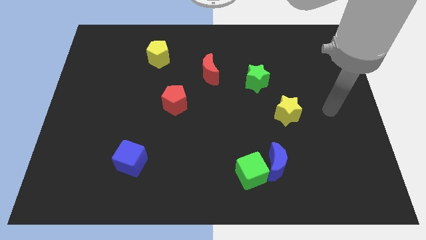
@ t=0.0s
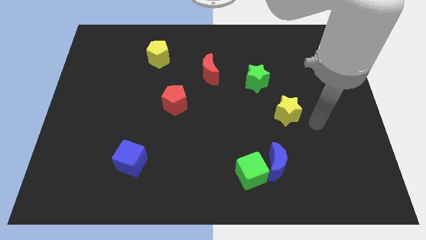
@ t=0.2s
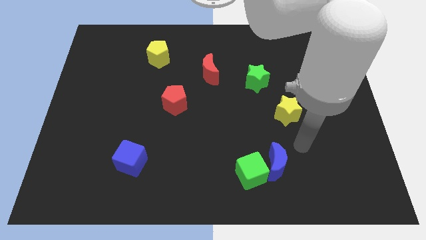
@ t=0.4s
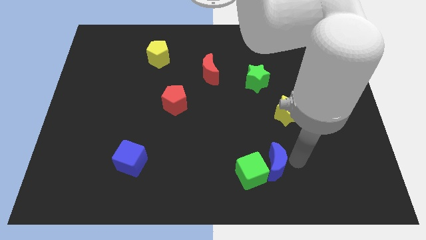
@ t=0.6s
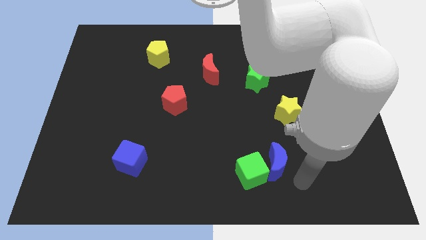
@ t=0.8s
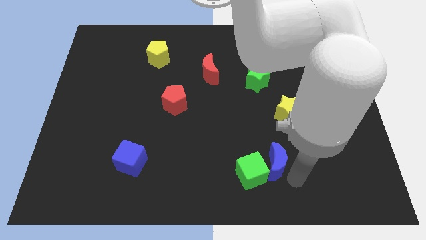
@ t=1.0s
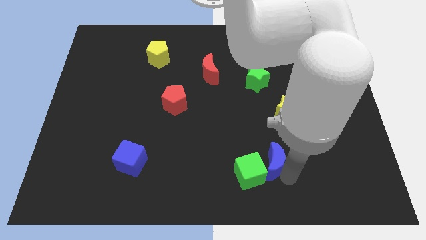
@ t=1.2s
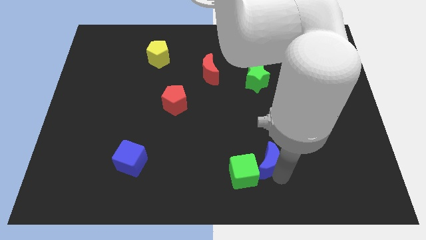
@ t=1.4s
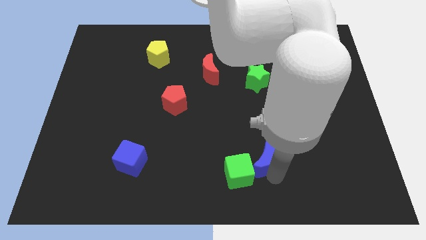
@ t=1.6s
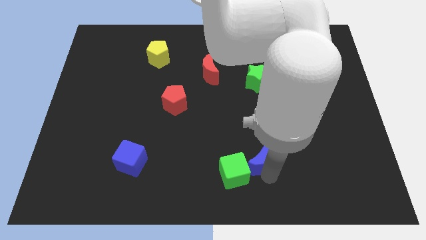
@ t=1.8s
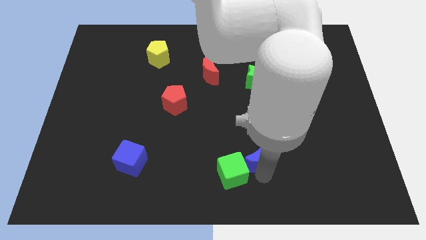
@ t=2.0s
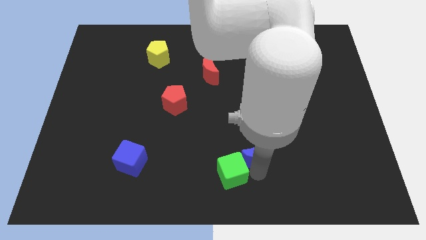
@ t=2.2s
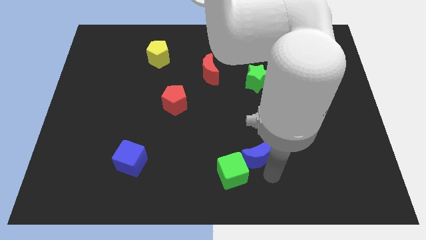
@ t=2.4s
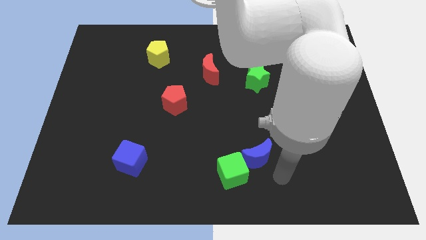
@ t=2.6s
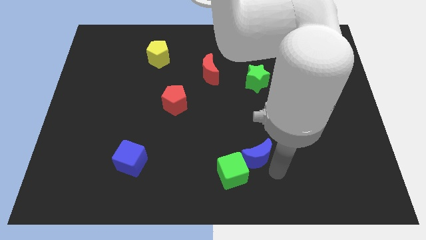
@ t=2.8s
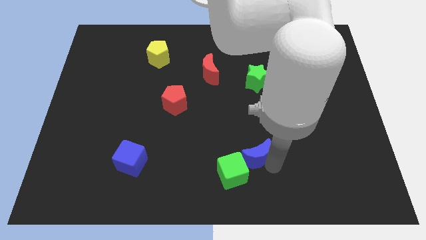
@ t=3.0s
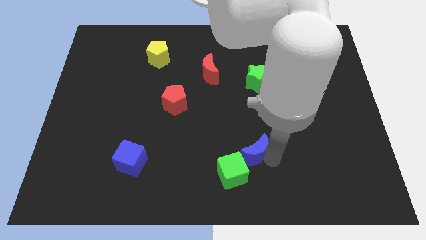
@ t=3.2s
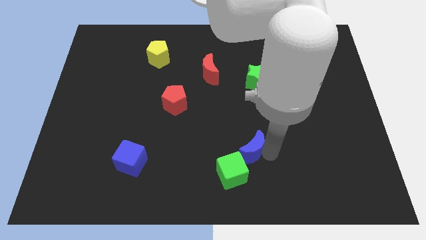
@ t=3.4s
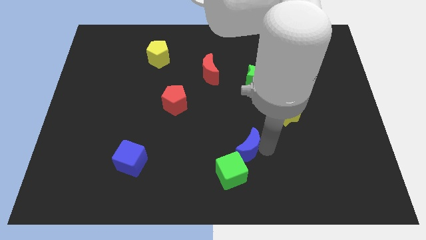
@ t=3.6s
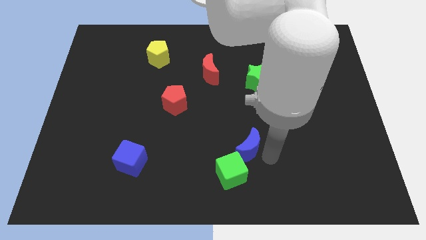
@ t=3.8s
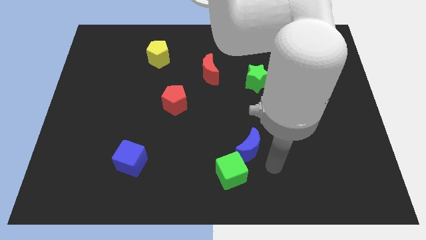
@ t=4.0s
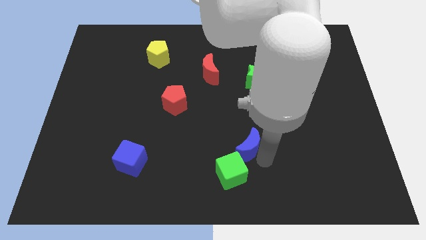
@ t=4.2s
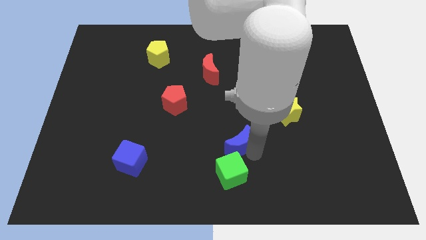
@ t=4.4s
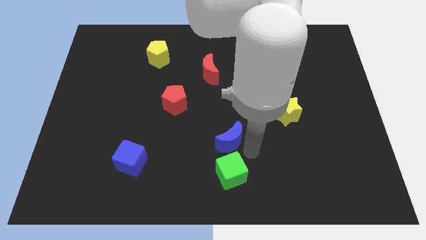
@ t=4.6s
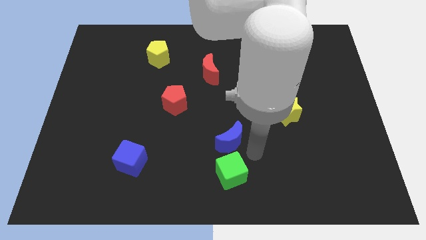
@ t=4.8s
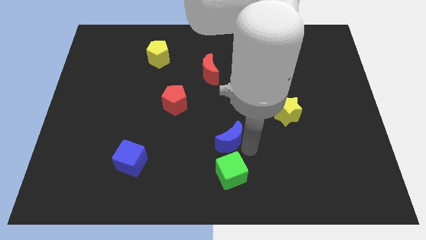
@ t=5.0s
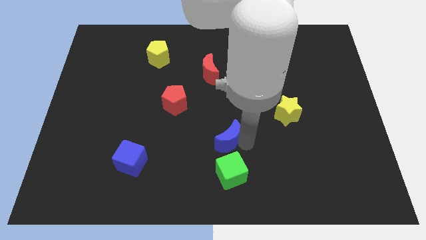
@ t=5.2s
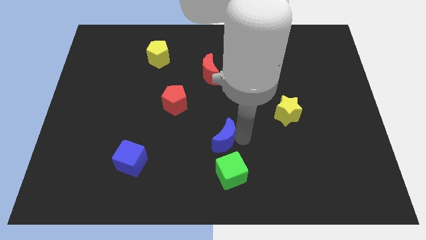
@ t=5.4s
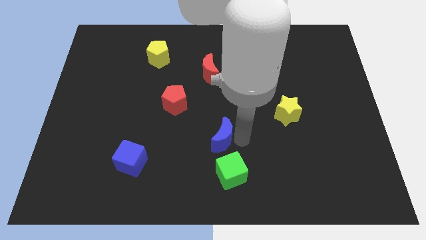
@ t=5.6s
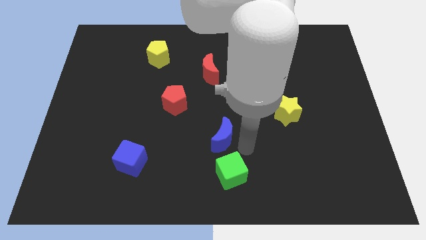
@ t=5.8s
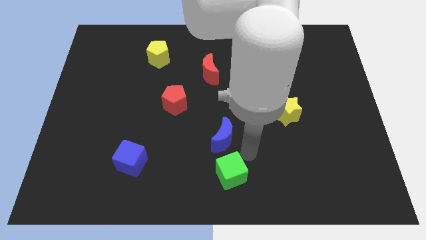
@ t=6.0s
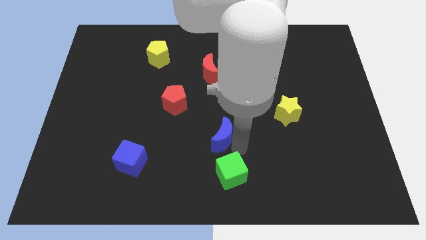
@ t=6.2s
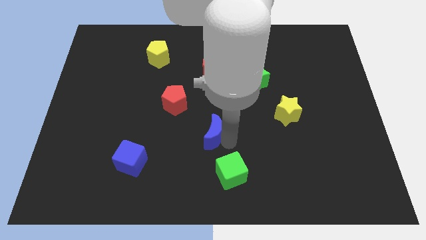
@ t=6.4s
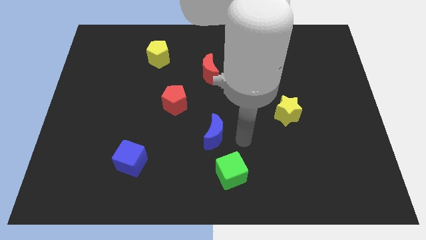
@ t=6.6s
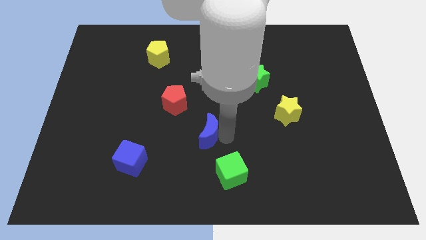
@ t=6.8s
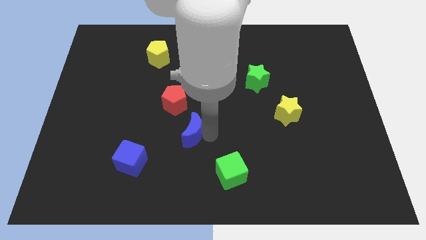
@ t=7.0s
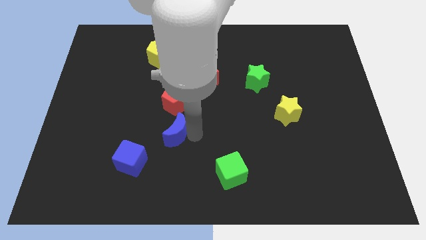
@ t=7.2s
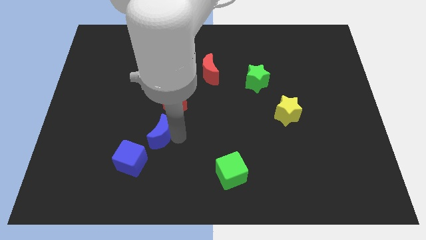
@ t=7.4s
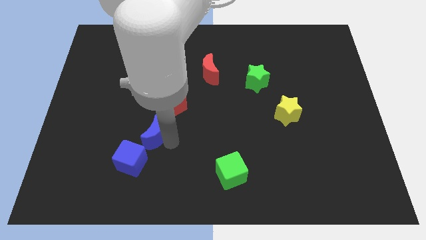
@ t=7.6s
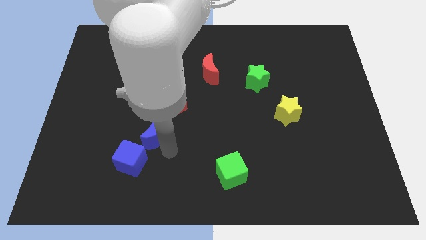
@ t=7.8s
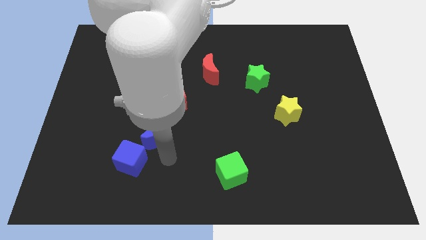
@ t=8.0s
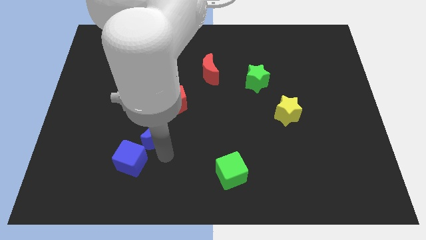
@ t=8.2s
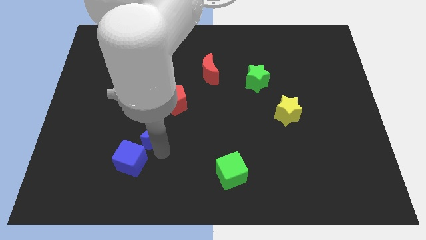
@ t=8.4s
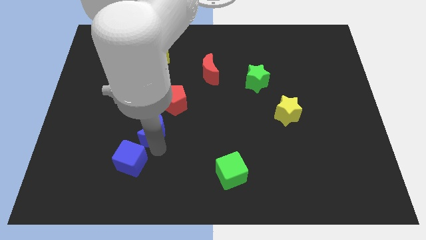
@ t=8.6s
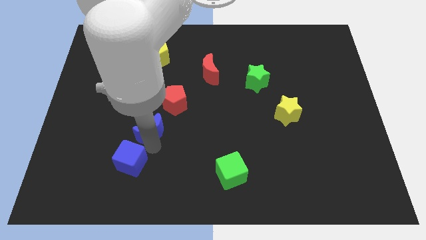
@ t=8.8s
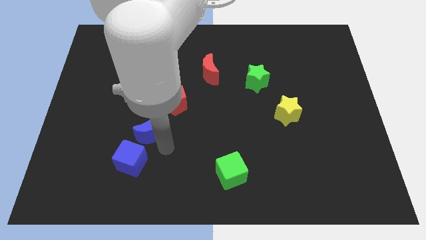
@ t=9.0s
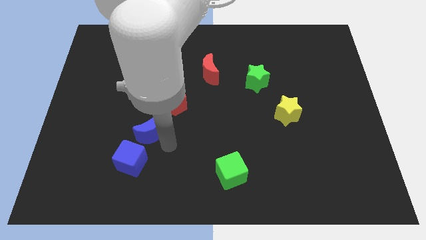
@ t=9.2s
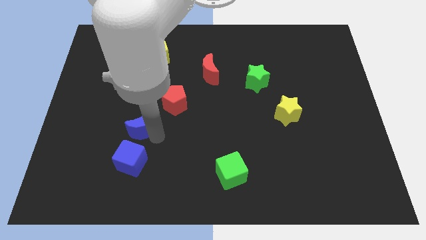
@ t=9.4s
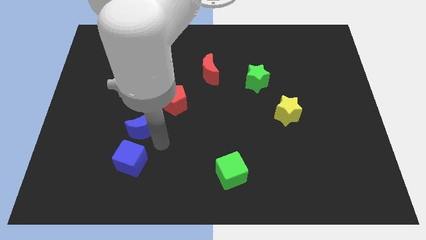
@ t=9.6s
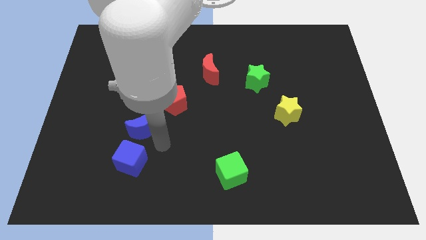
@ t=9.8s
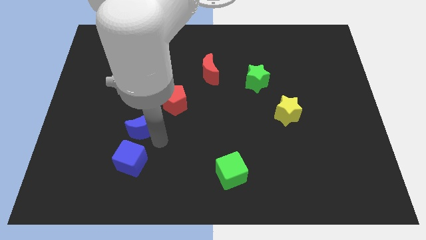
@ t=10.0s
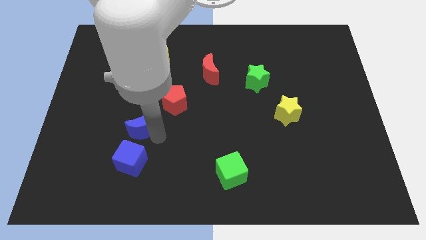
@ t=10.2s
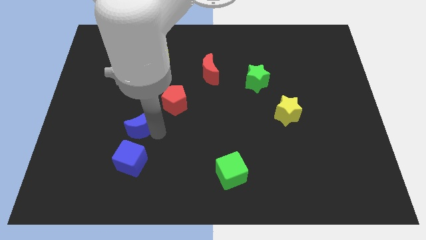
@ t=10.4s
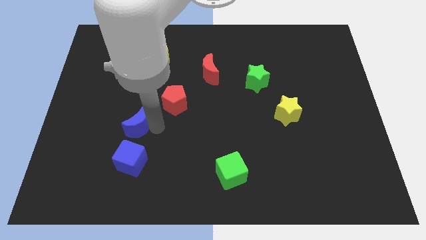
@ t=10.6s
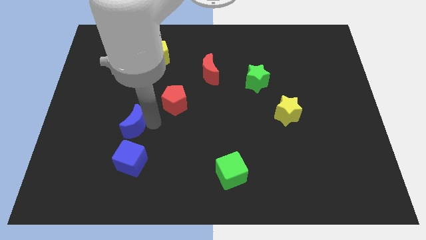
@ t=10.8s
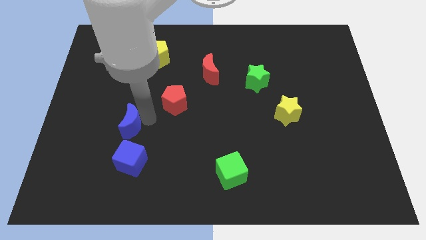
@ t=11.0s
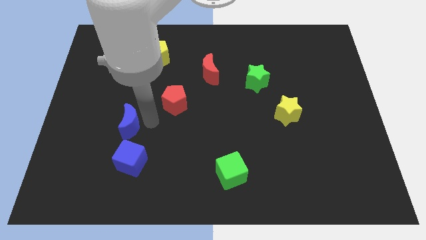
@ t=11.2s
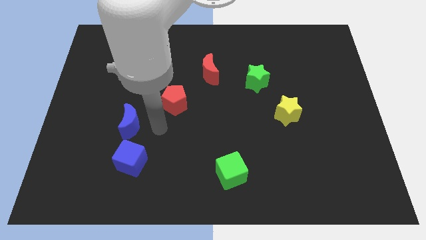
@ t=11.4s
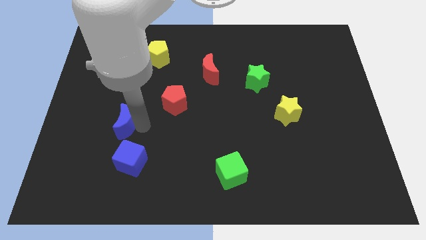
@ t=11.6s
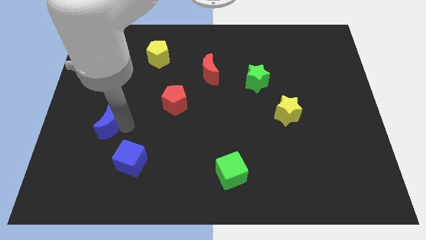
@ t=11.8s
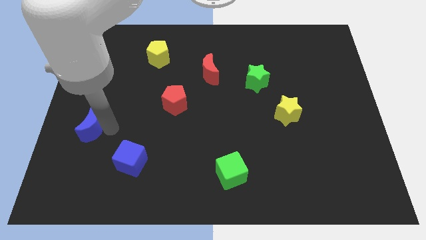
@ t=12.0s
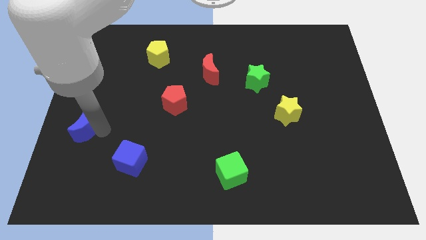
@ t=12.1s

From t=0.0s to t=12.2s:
slide the blue moon to the left side of the board
